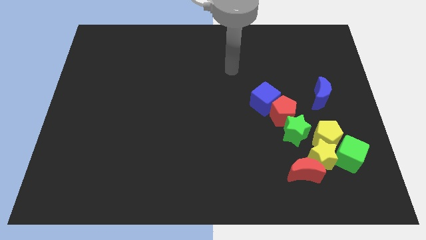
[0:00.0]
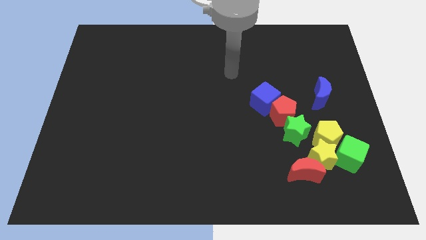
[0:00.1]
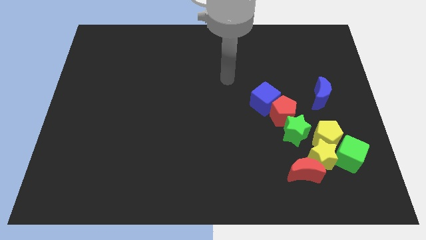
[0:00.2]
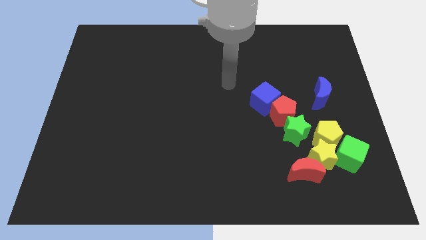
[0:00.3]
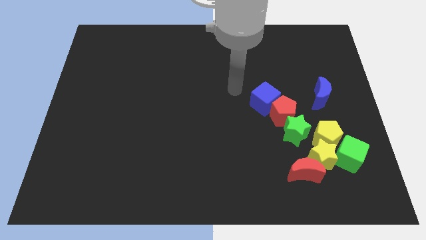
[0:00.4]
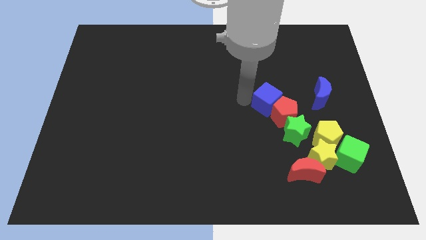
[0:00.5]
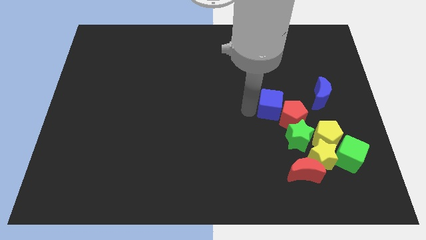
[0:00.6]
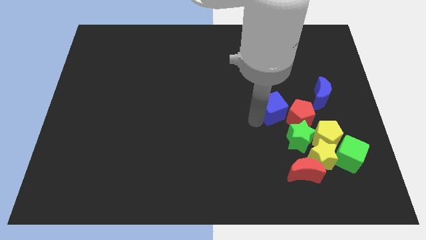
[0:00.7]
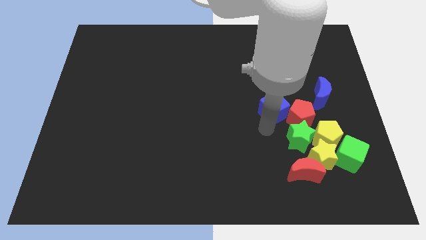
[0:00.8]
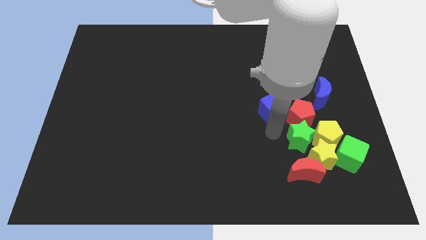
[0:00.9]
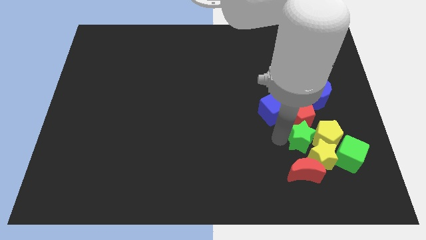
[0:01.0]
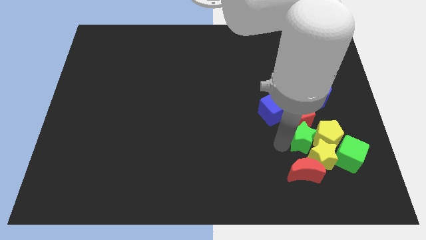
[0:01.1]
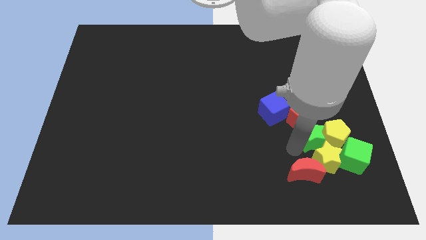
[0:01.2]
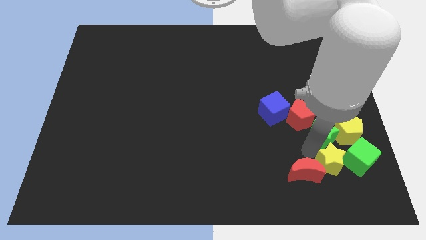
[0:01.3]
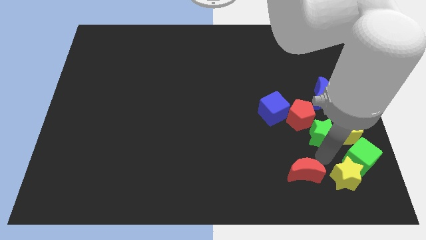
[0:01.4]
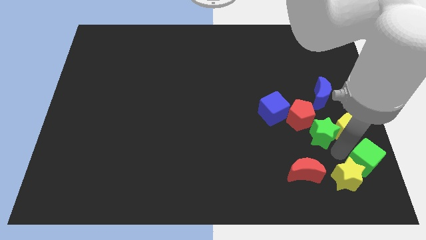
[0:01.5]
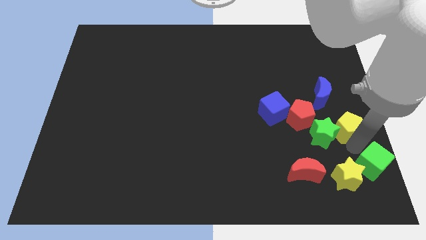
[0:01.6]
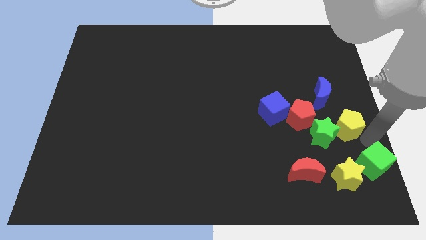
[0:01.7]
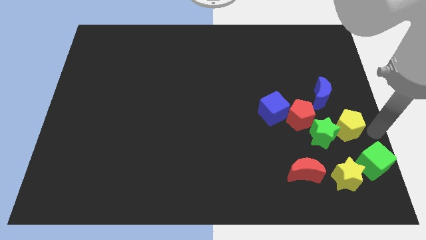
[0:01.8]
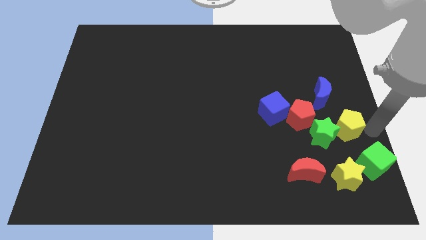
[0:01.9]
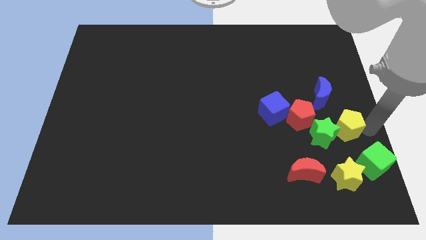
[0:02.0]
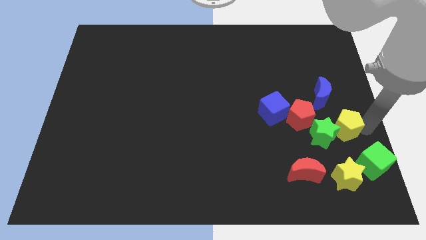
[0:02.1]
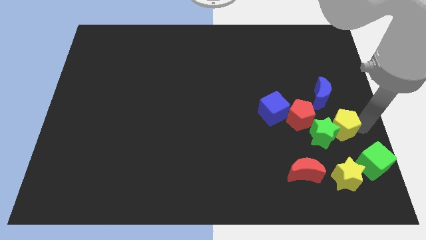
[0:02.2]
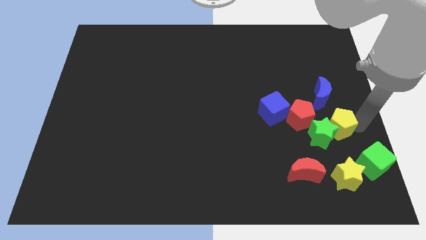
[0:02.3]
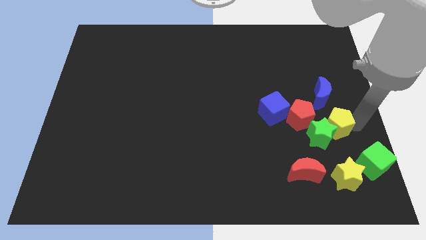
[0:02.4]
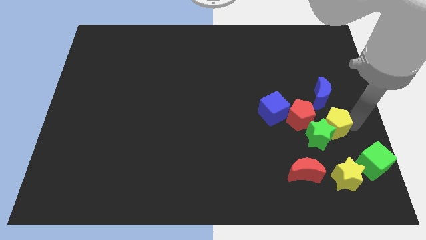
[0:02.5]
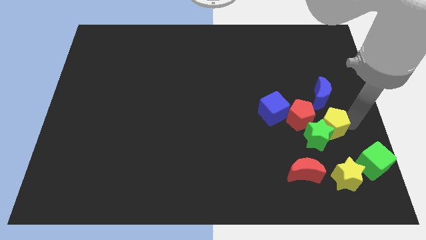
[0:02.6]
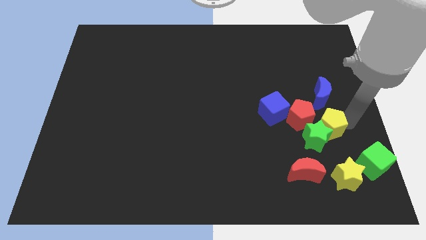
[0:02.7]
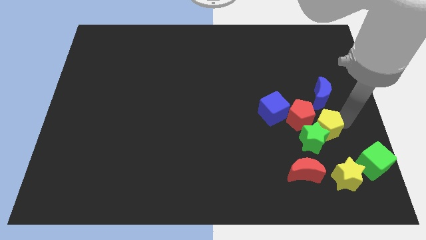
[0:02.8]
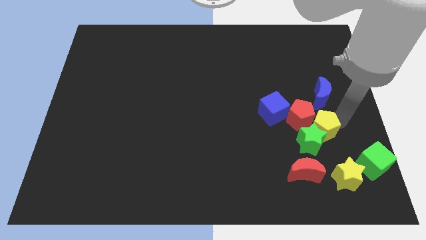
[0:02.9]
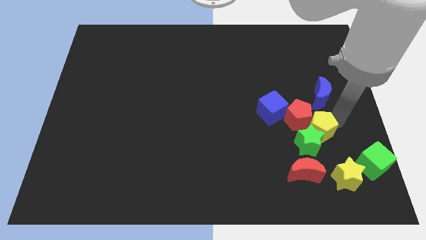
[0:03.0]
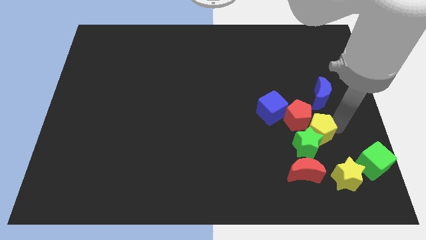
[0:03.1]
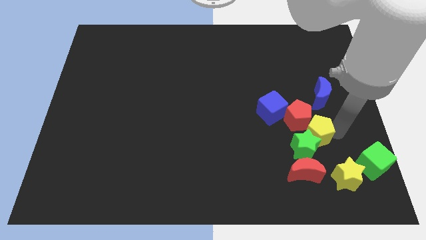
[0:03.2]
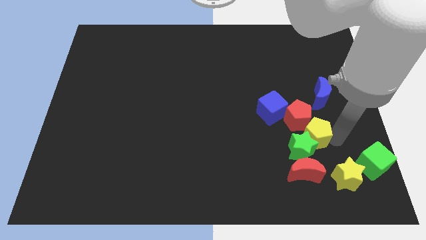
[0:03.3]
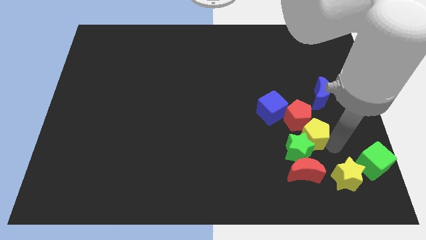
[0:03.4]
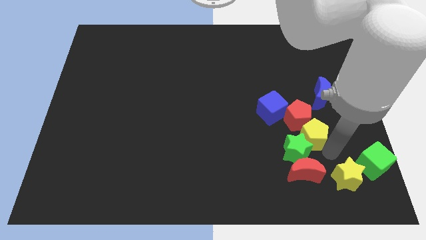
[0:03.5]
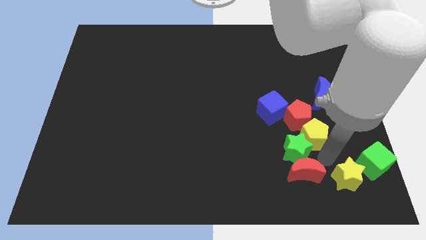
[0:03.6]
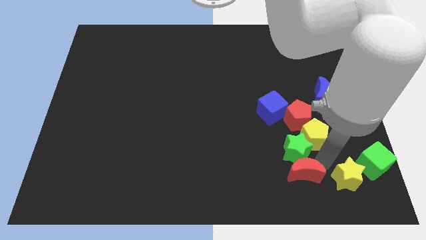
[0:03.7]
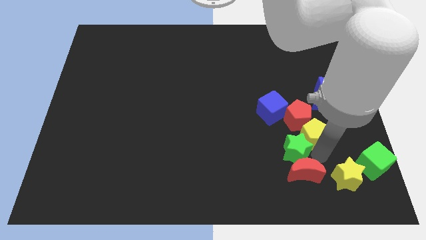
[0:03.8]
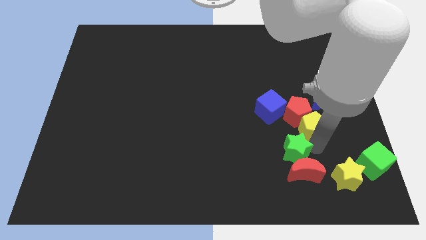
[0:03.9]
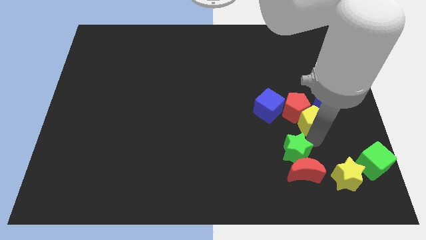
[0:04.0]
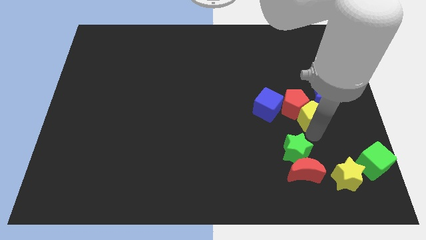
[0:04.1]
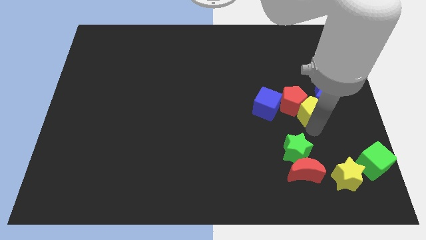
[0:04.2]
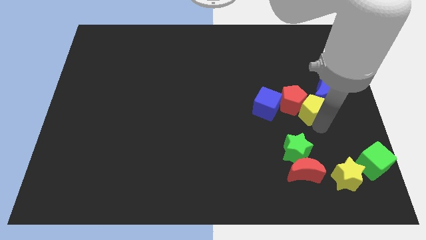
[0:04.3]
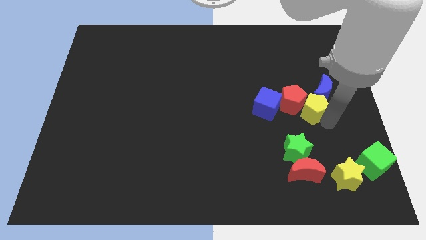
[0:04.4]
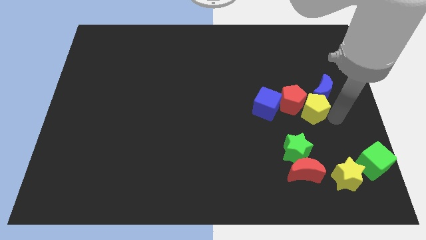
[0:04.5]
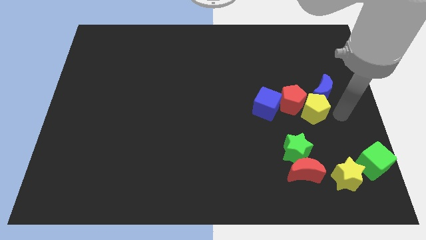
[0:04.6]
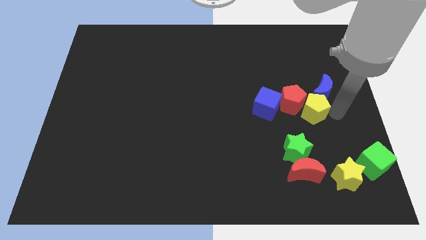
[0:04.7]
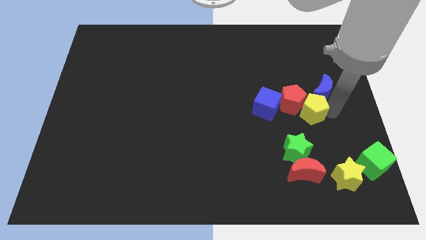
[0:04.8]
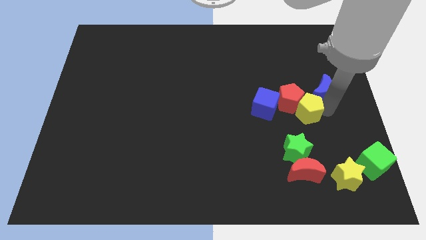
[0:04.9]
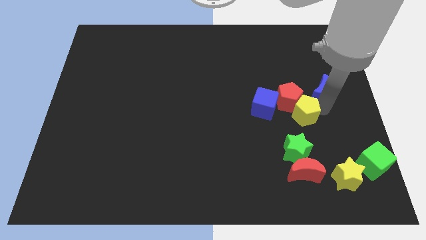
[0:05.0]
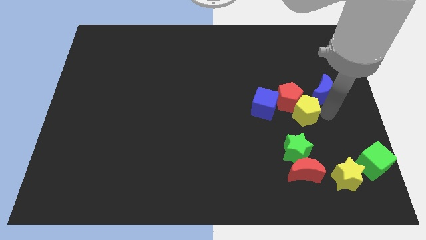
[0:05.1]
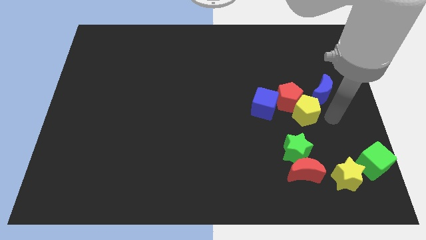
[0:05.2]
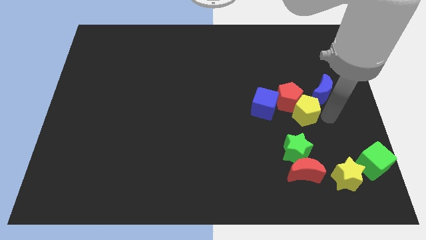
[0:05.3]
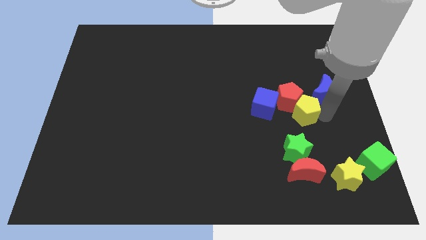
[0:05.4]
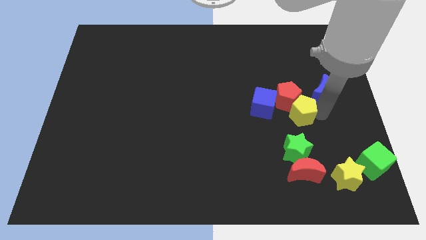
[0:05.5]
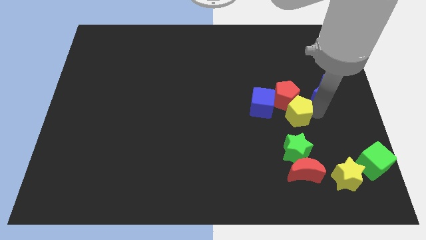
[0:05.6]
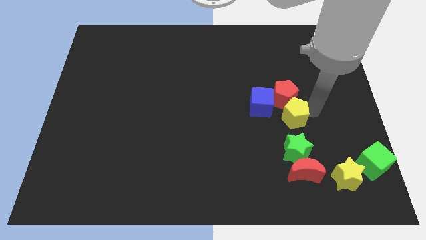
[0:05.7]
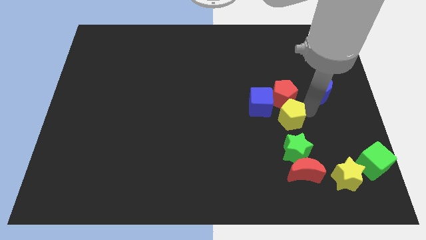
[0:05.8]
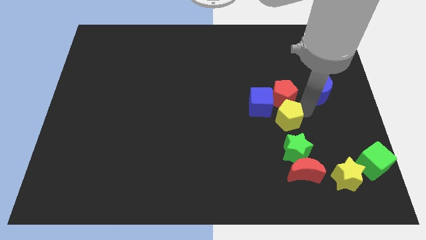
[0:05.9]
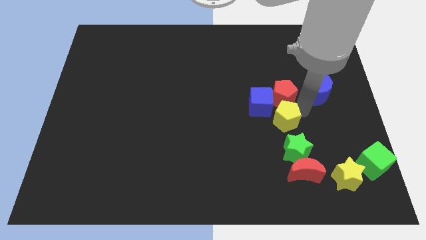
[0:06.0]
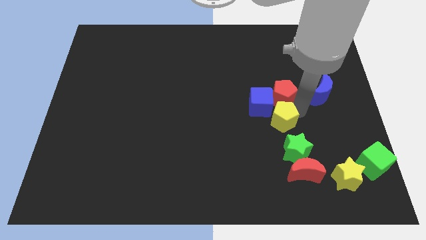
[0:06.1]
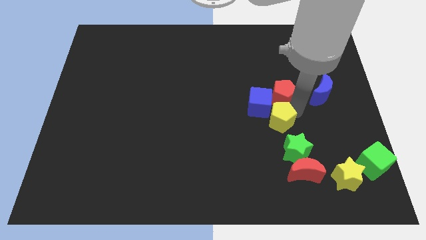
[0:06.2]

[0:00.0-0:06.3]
move the yellow pentagon close to the blue cube

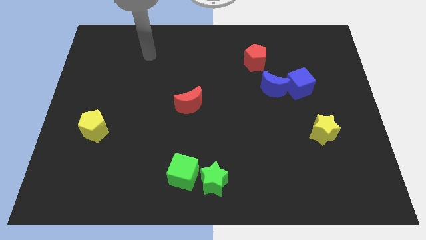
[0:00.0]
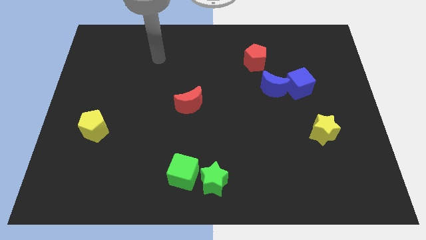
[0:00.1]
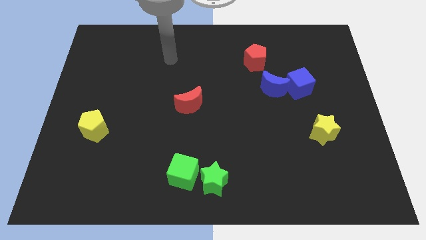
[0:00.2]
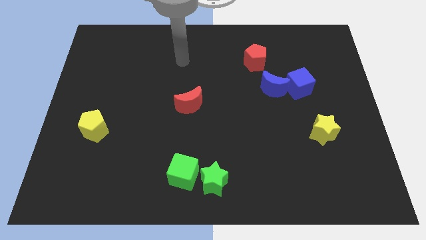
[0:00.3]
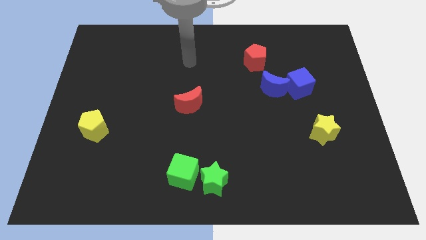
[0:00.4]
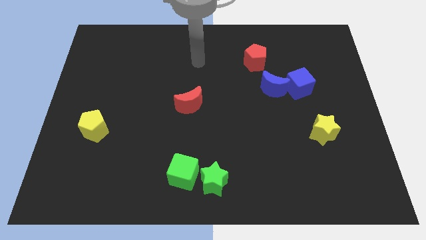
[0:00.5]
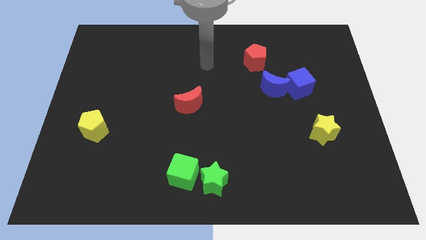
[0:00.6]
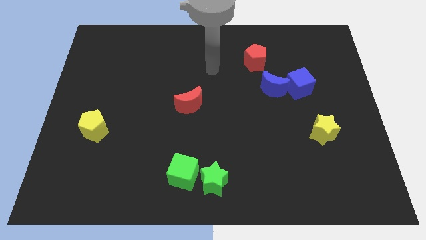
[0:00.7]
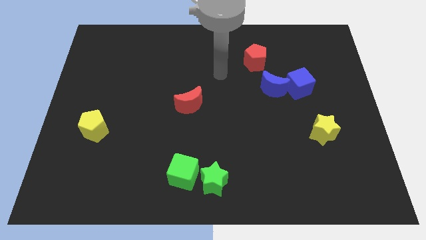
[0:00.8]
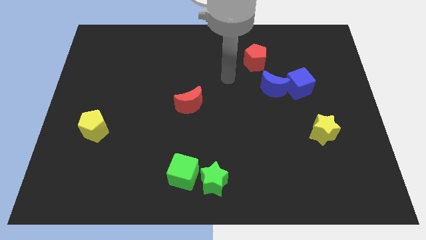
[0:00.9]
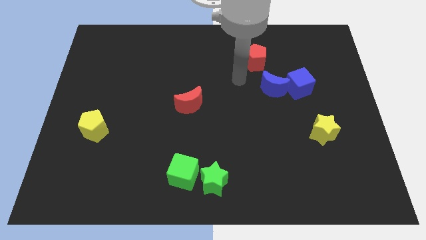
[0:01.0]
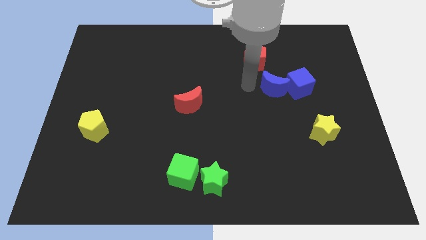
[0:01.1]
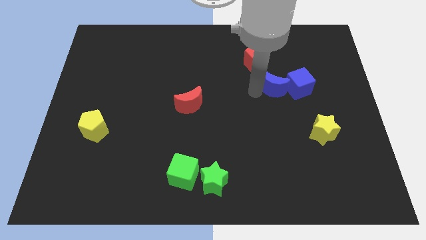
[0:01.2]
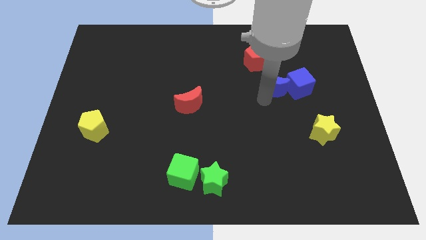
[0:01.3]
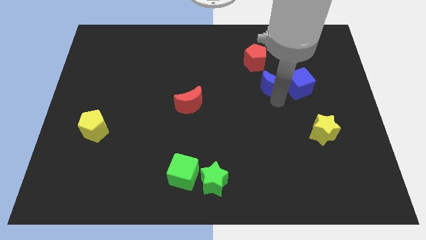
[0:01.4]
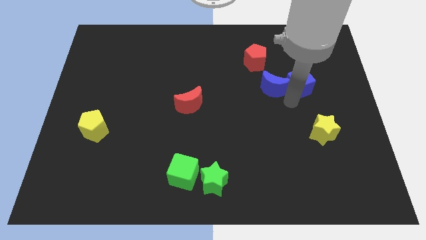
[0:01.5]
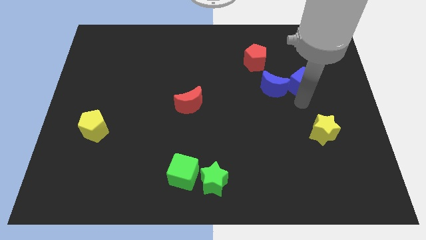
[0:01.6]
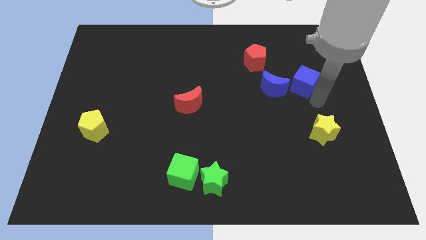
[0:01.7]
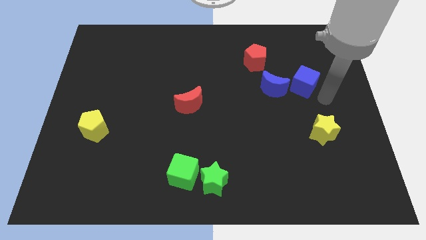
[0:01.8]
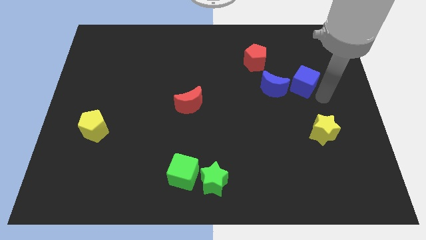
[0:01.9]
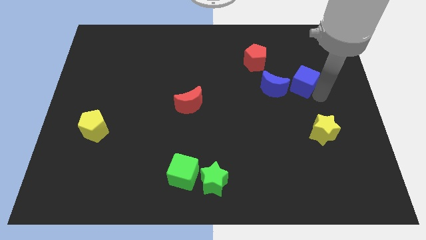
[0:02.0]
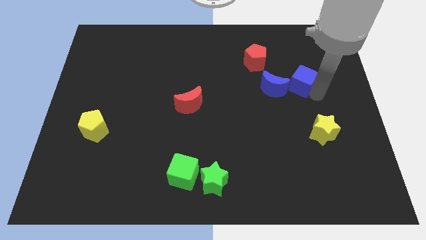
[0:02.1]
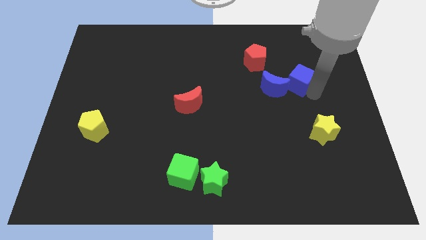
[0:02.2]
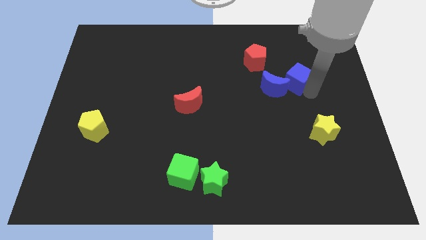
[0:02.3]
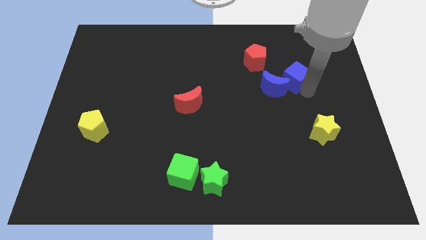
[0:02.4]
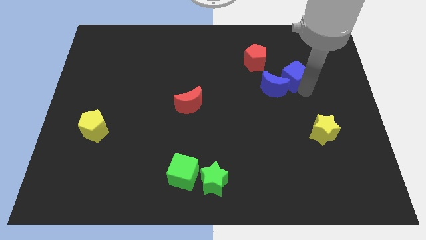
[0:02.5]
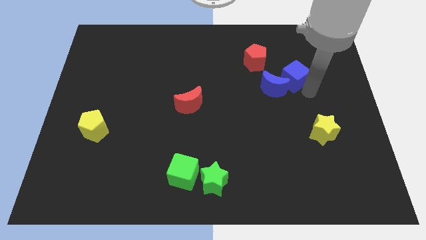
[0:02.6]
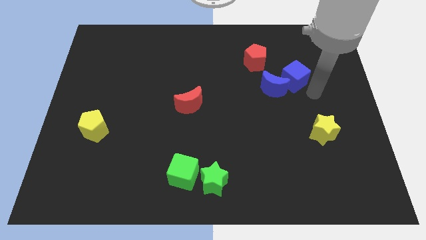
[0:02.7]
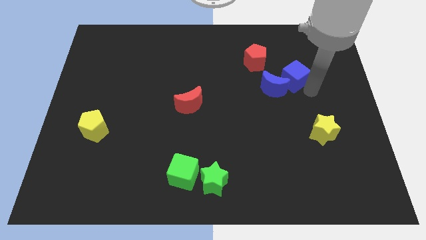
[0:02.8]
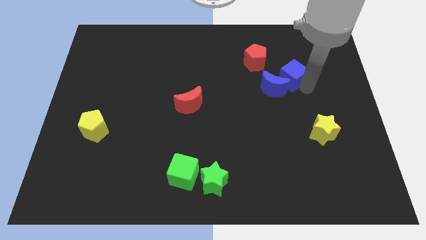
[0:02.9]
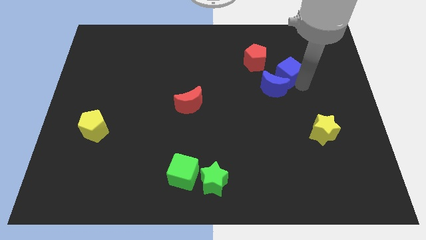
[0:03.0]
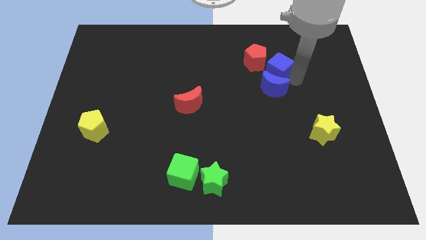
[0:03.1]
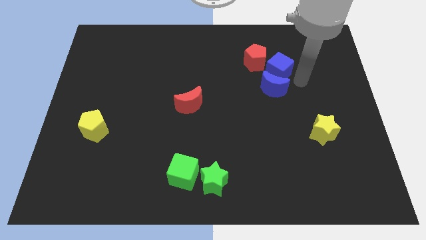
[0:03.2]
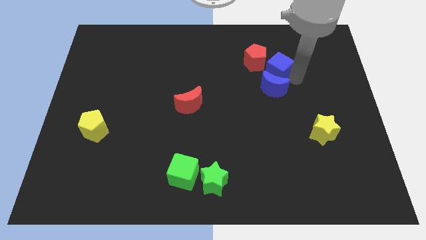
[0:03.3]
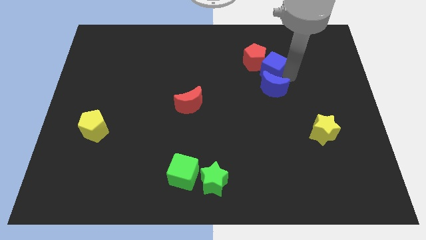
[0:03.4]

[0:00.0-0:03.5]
move the blue cube towards the red pentagon
